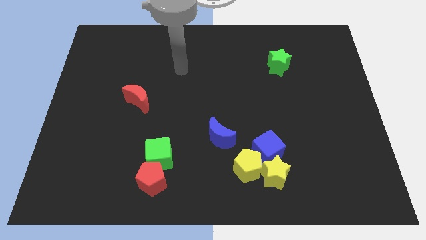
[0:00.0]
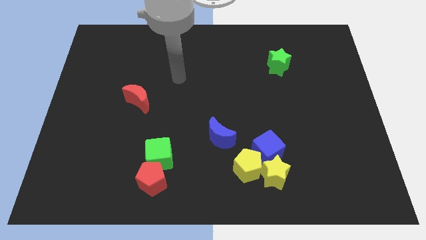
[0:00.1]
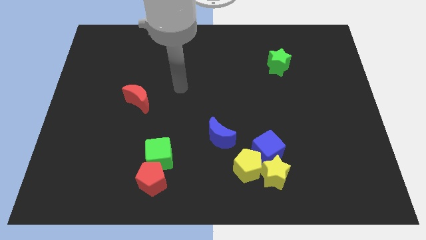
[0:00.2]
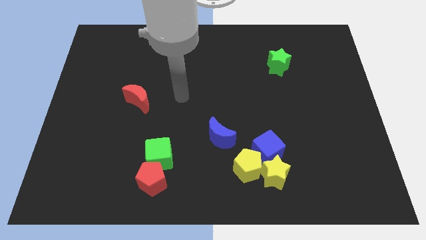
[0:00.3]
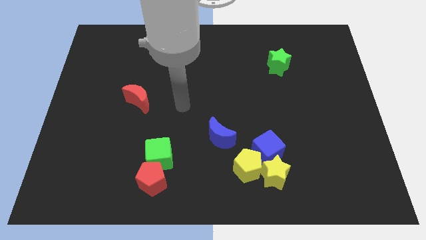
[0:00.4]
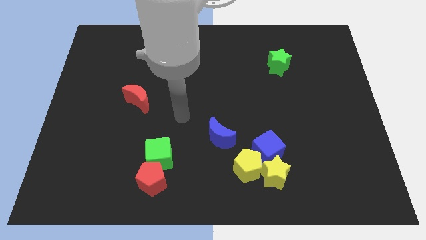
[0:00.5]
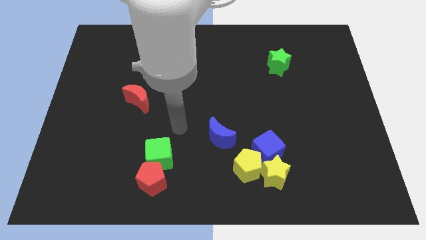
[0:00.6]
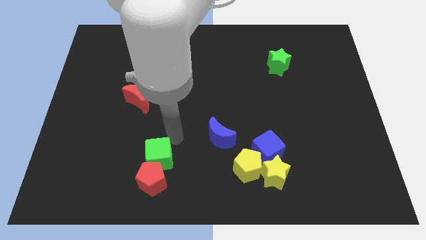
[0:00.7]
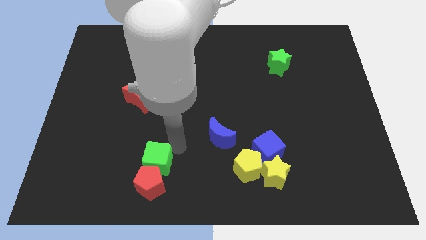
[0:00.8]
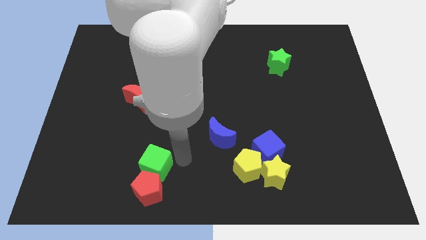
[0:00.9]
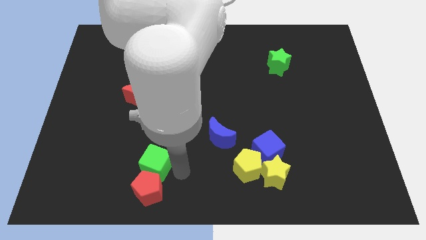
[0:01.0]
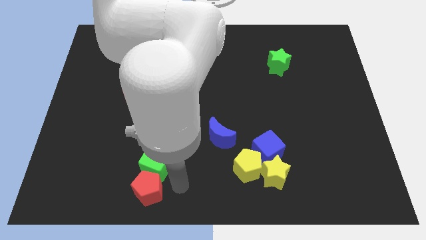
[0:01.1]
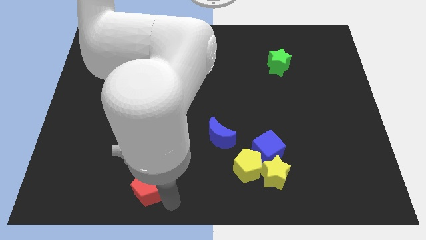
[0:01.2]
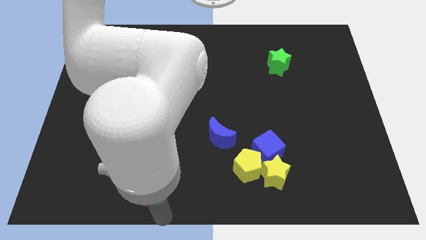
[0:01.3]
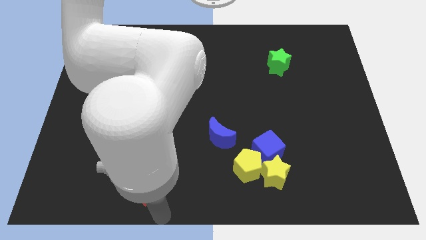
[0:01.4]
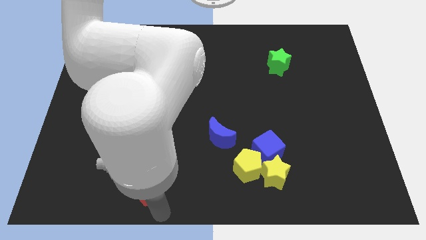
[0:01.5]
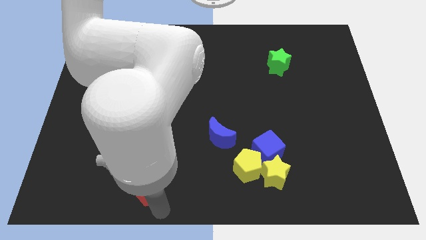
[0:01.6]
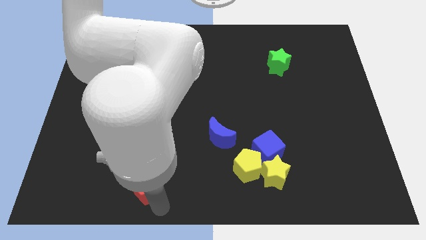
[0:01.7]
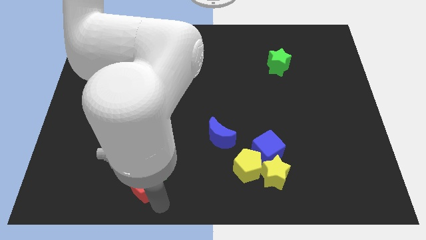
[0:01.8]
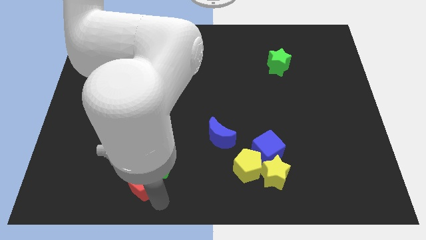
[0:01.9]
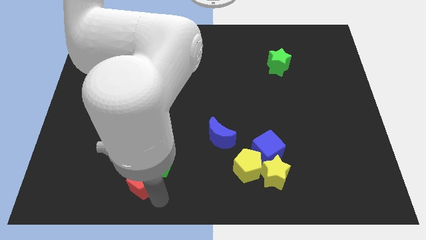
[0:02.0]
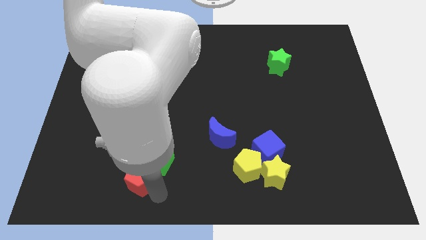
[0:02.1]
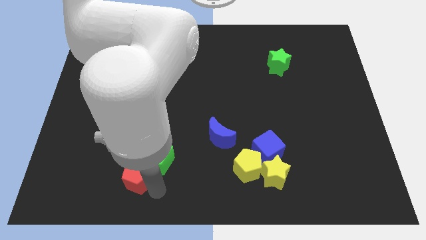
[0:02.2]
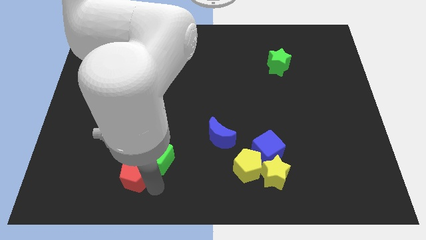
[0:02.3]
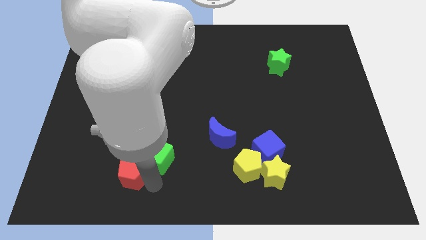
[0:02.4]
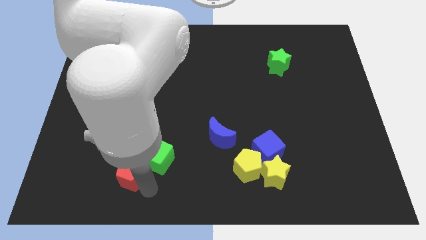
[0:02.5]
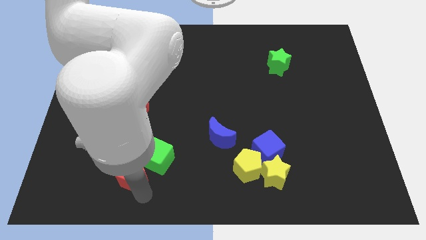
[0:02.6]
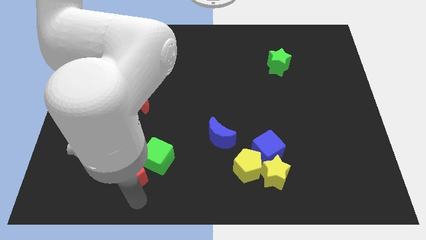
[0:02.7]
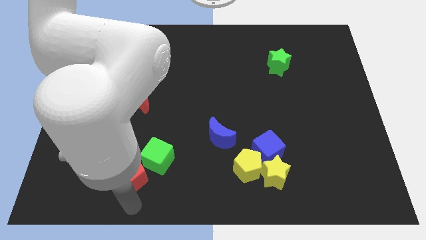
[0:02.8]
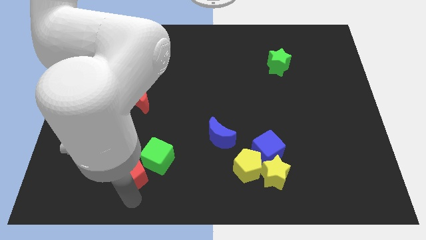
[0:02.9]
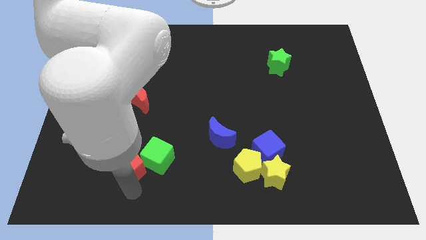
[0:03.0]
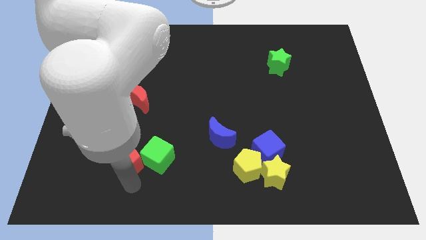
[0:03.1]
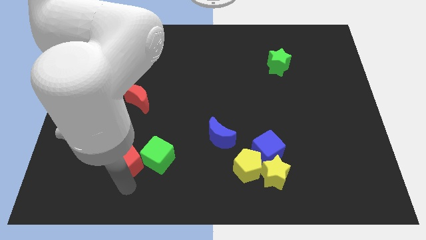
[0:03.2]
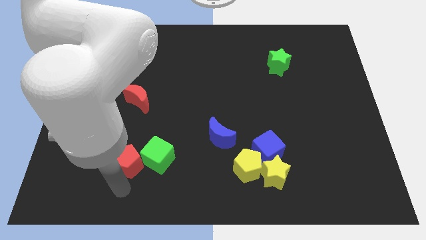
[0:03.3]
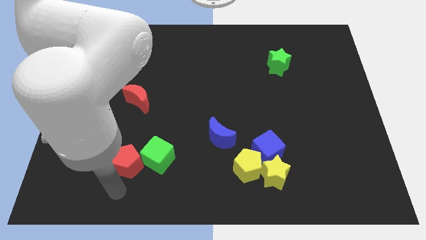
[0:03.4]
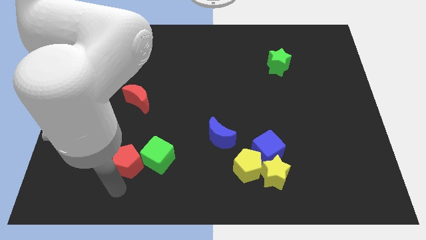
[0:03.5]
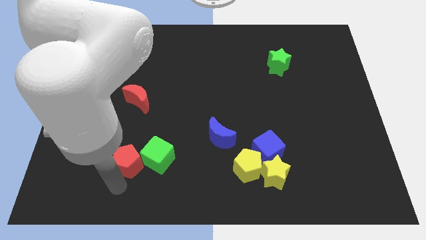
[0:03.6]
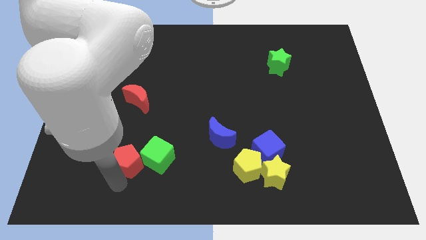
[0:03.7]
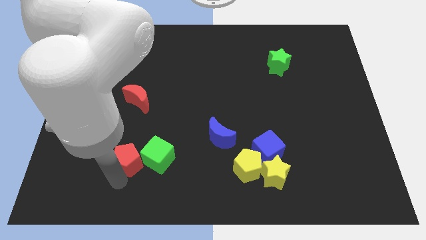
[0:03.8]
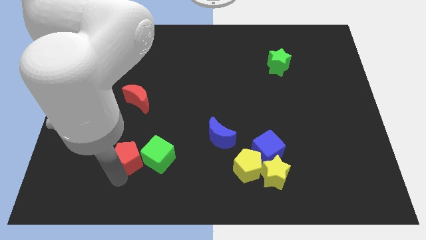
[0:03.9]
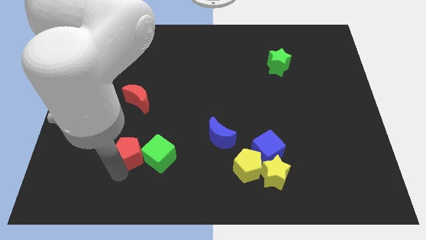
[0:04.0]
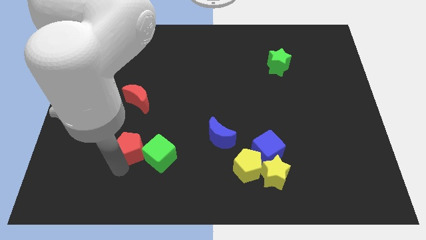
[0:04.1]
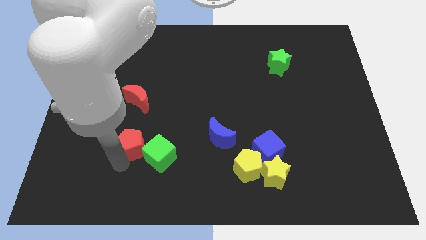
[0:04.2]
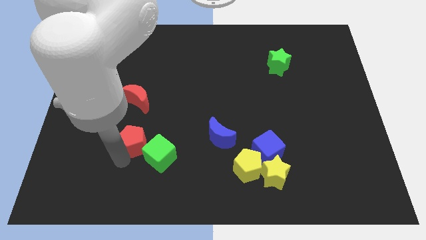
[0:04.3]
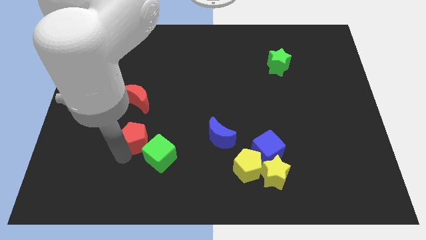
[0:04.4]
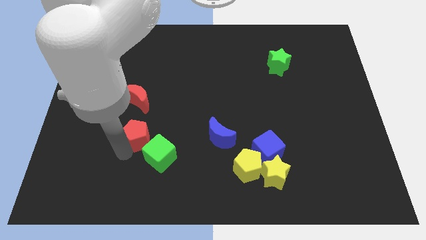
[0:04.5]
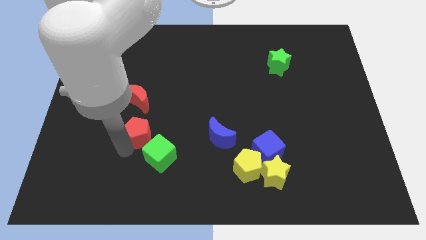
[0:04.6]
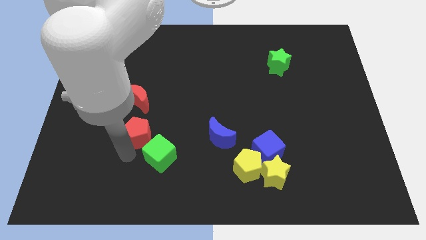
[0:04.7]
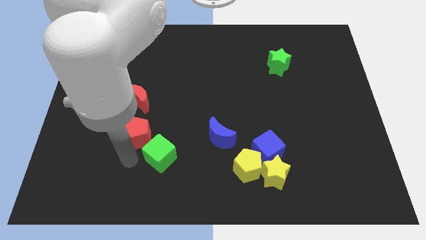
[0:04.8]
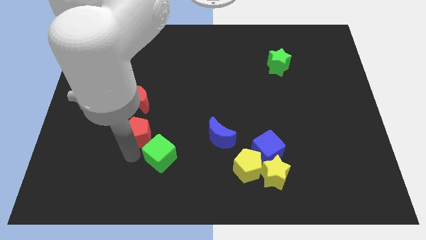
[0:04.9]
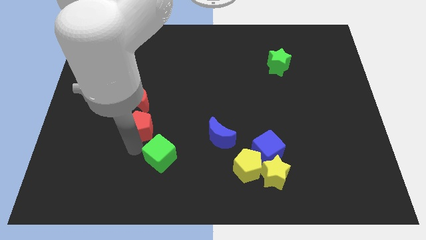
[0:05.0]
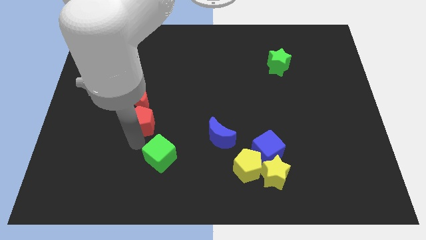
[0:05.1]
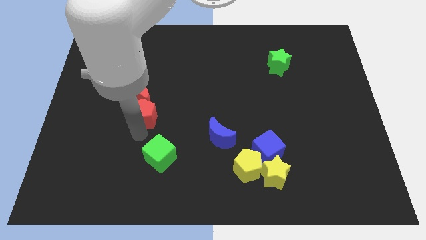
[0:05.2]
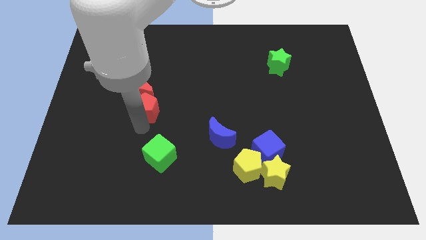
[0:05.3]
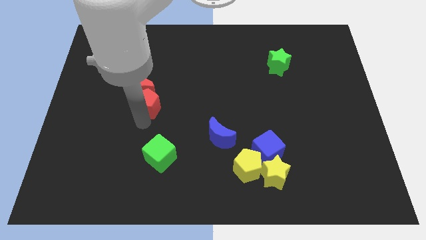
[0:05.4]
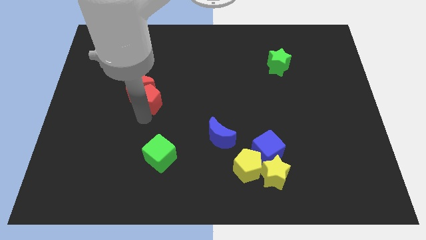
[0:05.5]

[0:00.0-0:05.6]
slide the red pentagon upwards

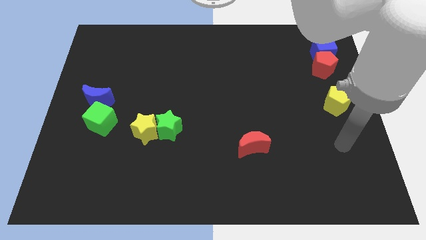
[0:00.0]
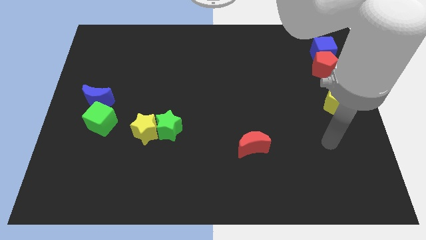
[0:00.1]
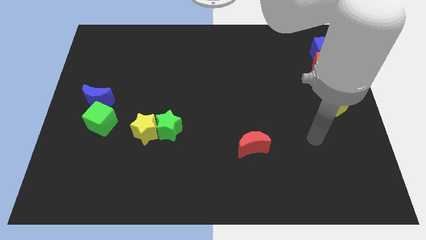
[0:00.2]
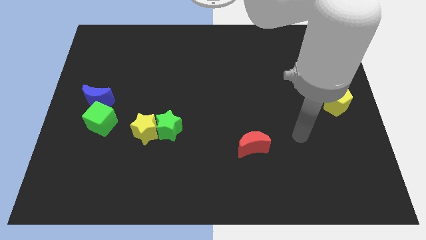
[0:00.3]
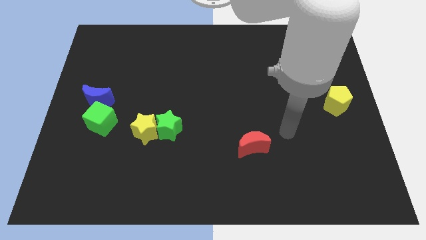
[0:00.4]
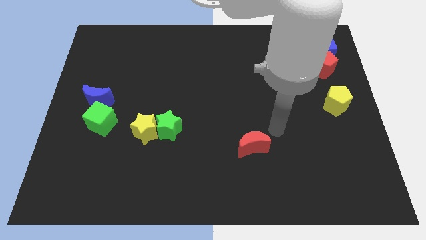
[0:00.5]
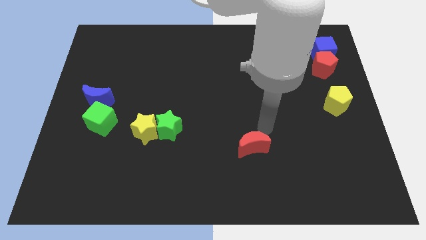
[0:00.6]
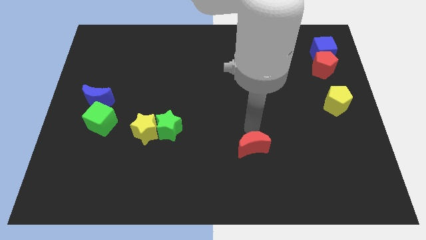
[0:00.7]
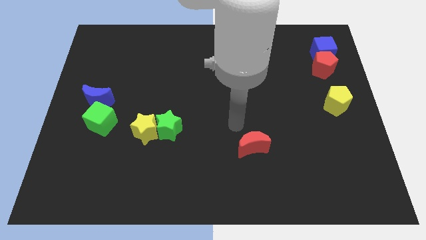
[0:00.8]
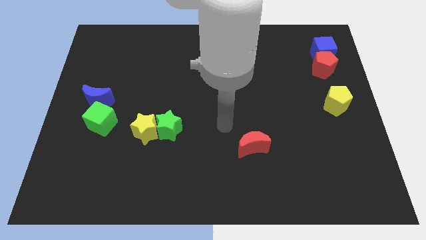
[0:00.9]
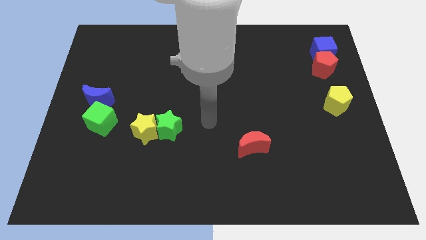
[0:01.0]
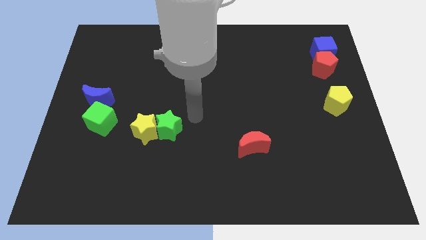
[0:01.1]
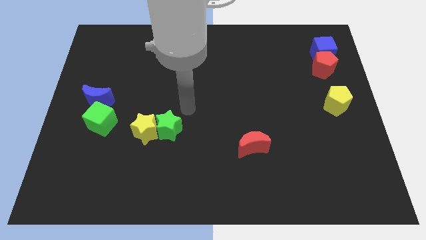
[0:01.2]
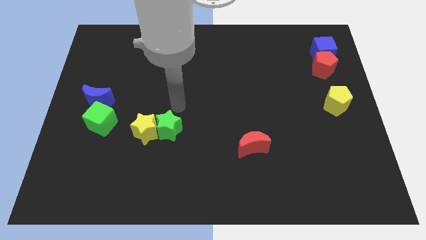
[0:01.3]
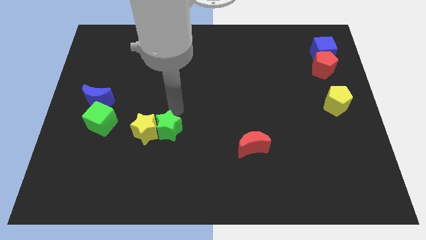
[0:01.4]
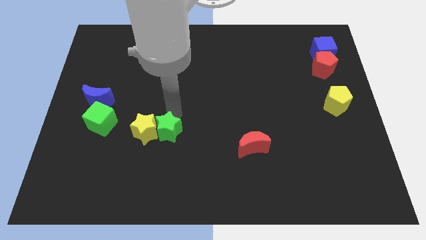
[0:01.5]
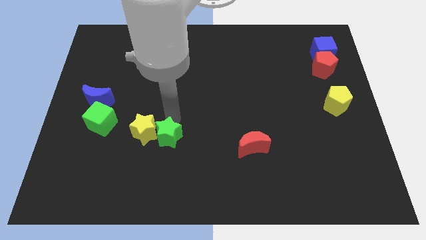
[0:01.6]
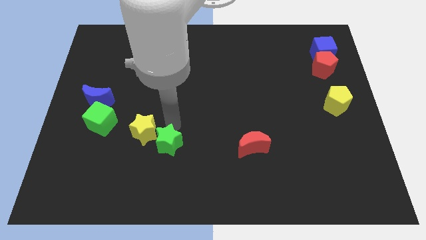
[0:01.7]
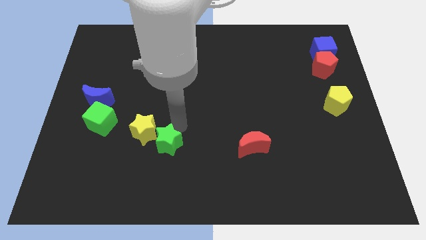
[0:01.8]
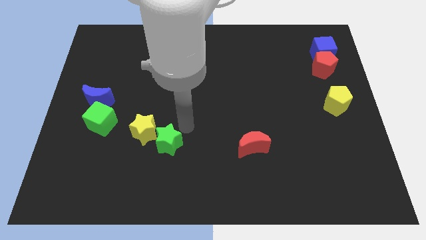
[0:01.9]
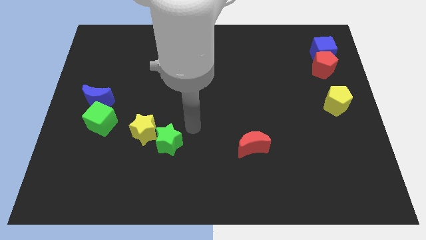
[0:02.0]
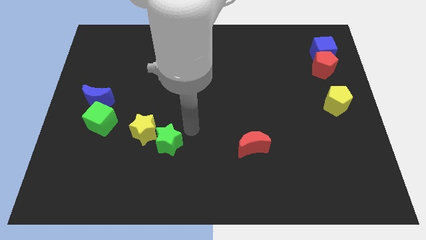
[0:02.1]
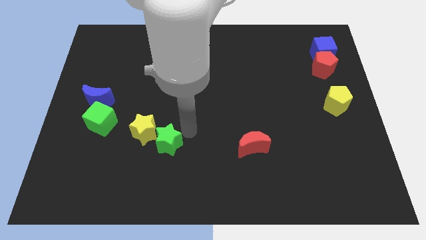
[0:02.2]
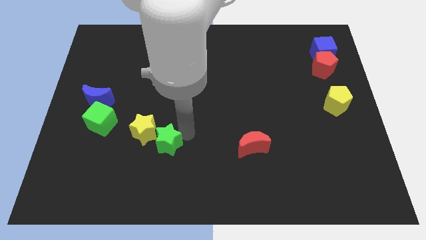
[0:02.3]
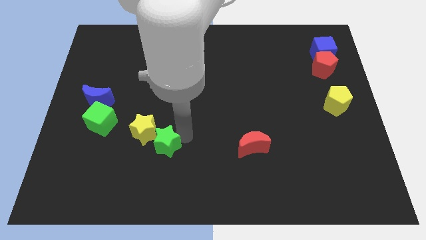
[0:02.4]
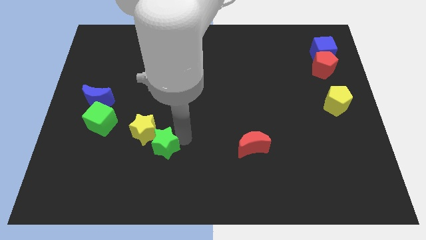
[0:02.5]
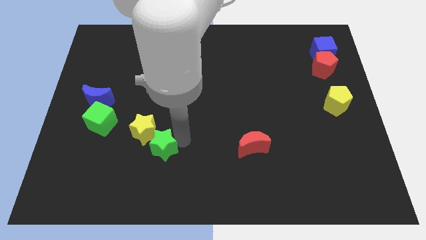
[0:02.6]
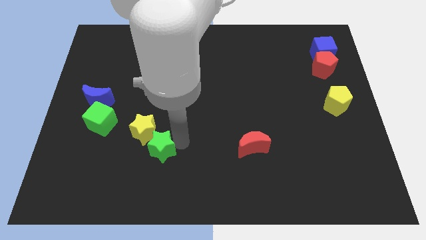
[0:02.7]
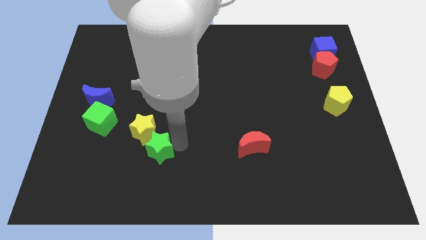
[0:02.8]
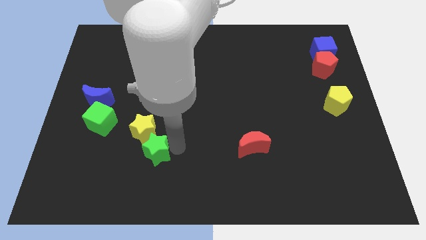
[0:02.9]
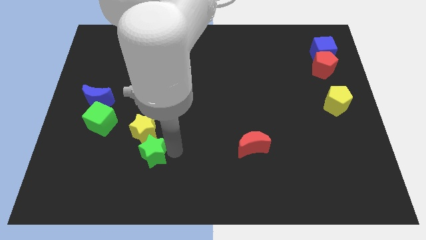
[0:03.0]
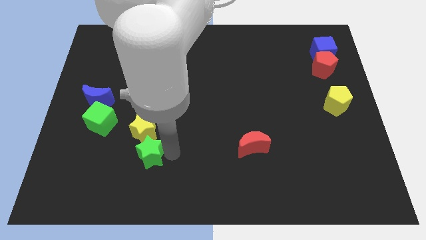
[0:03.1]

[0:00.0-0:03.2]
move the green star a little down and then to the left
